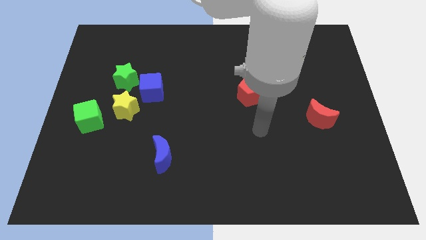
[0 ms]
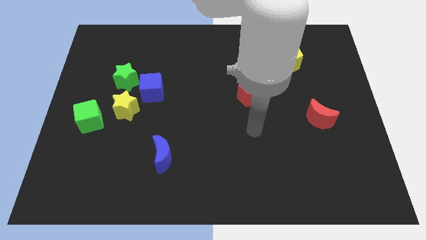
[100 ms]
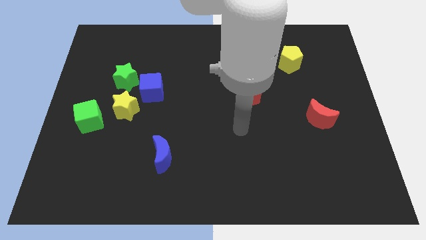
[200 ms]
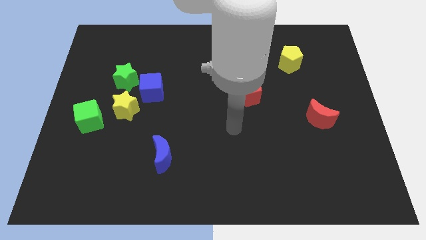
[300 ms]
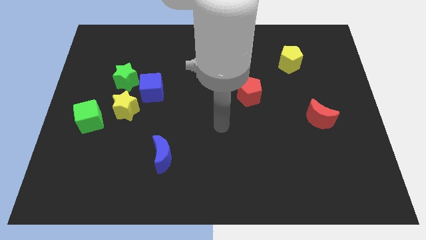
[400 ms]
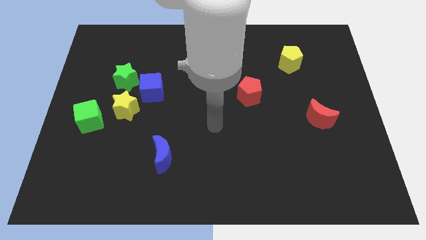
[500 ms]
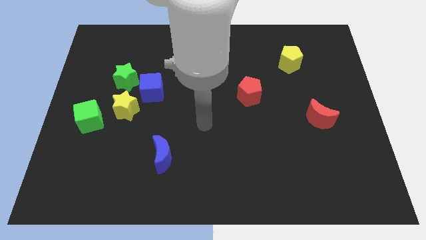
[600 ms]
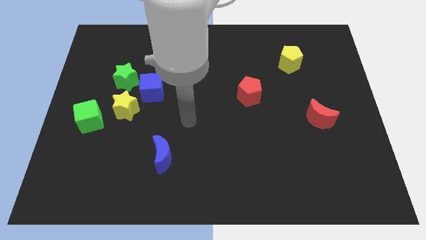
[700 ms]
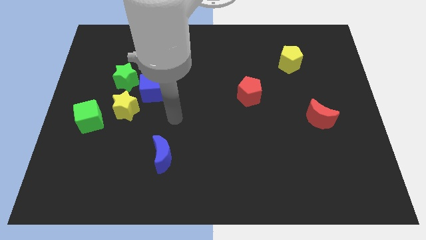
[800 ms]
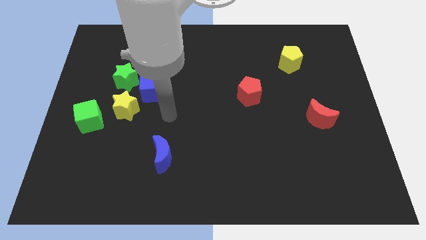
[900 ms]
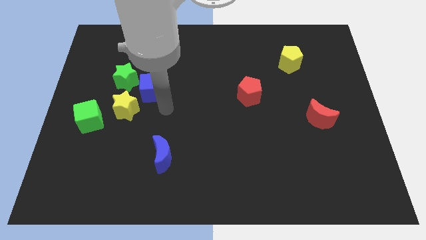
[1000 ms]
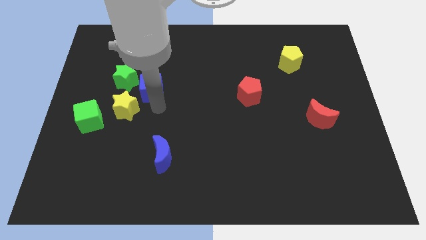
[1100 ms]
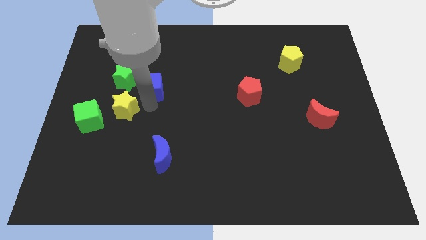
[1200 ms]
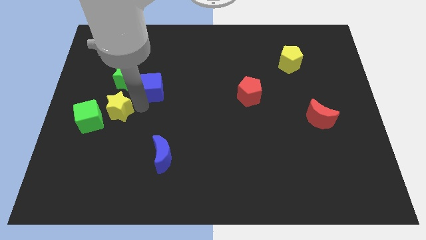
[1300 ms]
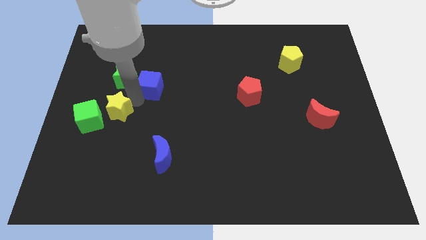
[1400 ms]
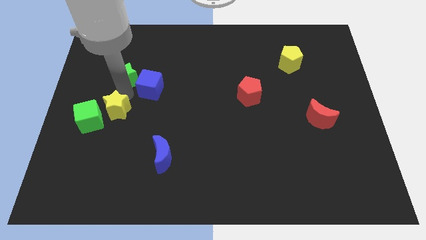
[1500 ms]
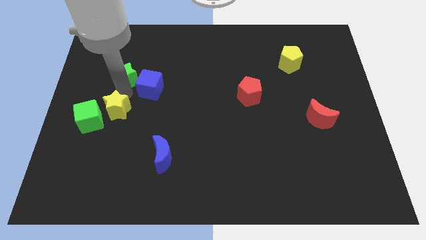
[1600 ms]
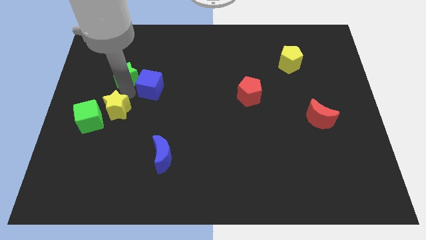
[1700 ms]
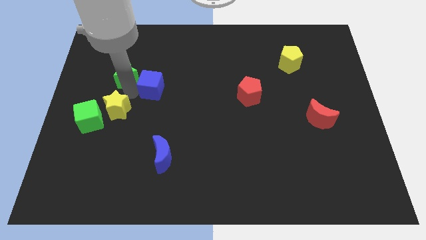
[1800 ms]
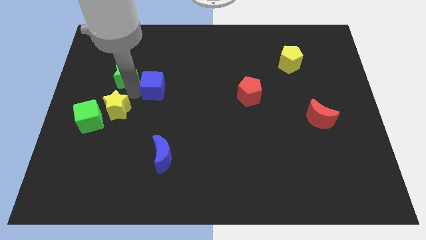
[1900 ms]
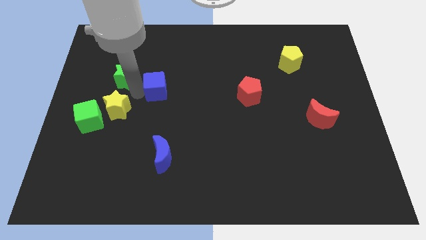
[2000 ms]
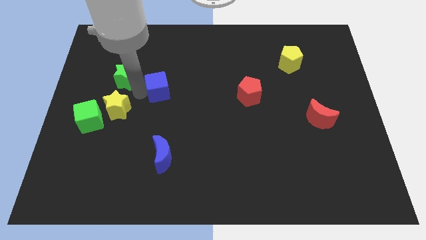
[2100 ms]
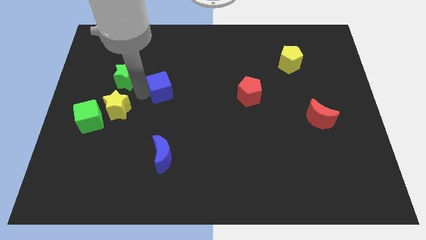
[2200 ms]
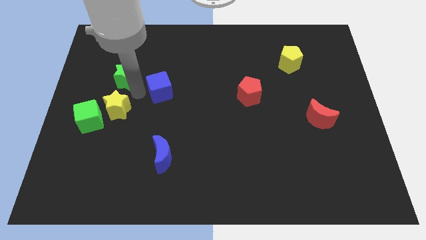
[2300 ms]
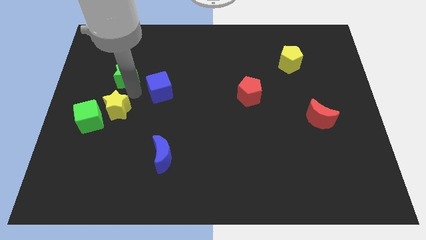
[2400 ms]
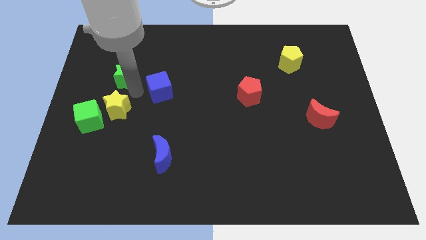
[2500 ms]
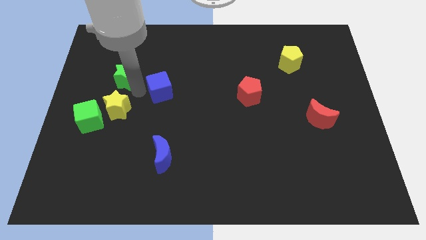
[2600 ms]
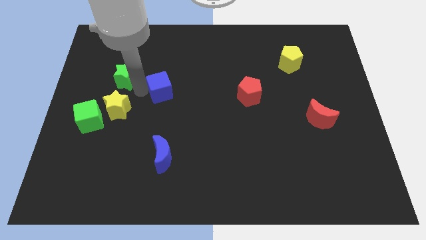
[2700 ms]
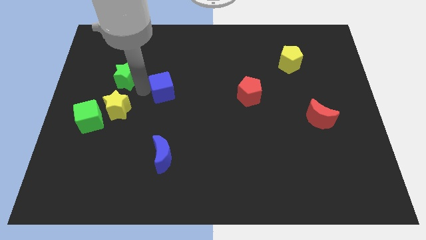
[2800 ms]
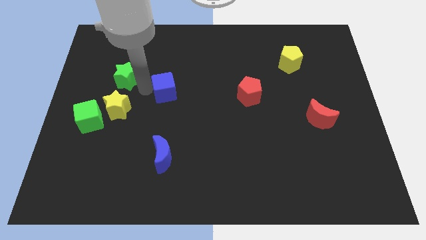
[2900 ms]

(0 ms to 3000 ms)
separate the blue cube from the green star and yellow star

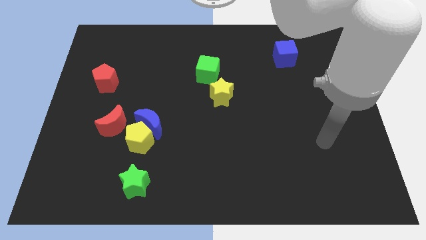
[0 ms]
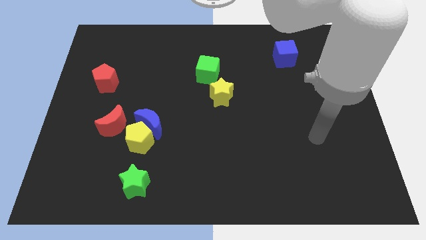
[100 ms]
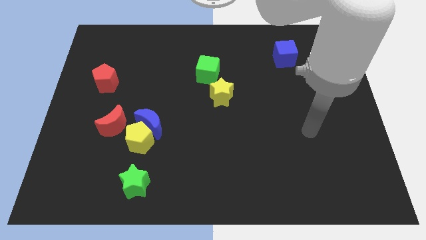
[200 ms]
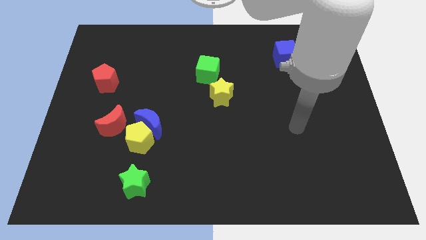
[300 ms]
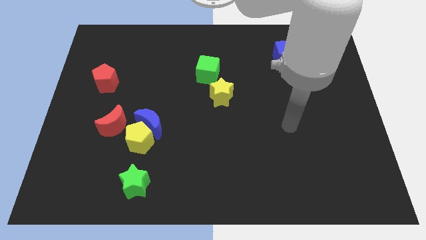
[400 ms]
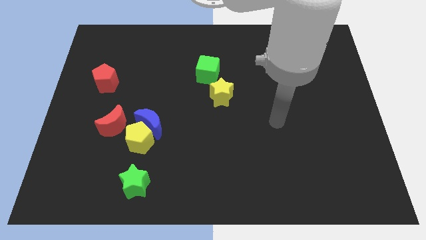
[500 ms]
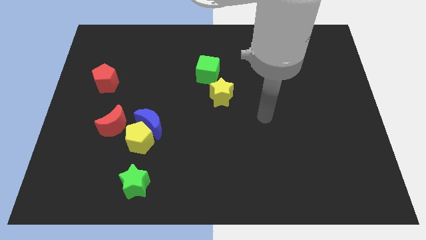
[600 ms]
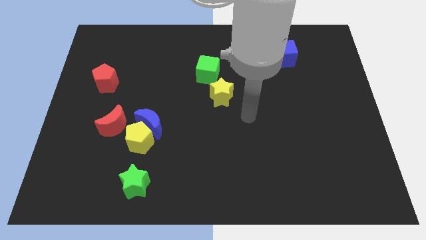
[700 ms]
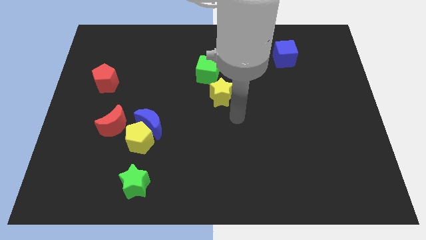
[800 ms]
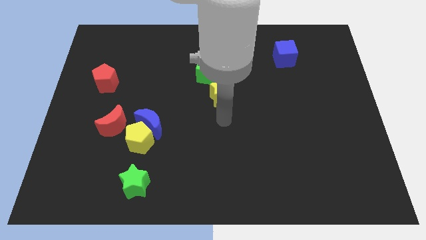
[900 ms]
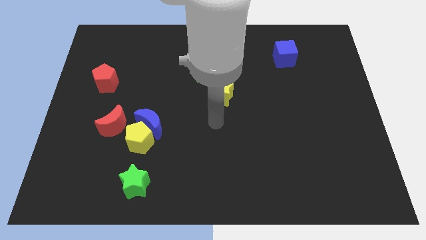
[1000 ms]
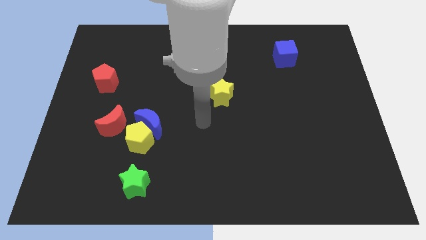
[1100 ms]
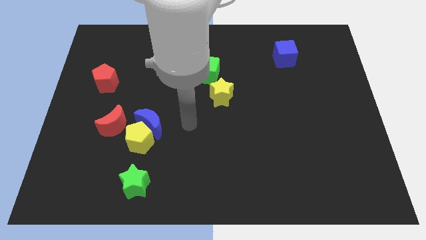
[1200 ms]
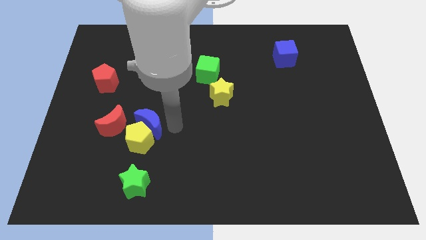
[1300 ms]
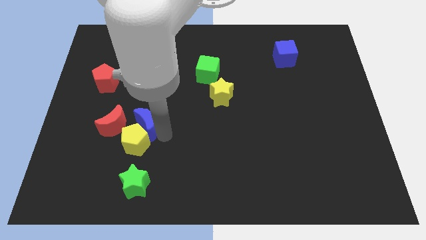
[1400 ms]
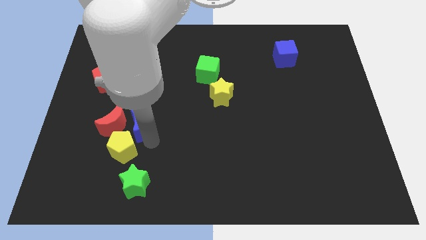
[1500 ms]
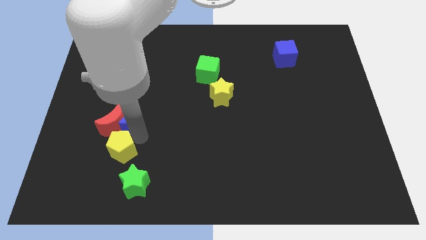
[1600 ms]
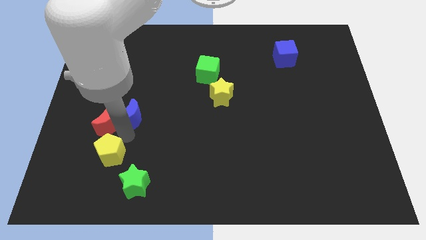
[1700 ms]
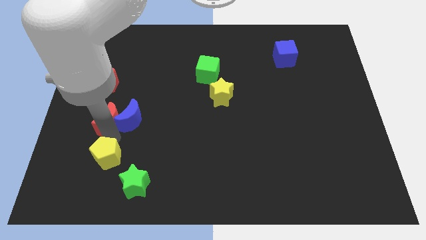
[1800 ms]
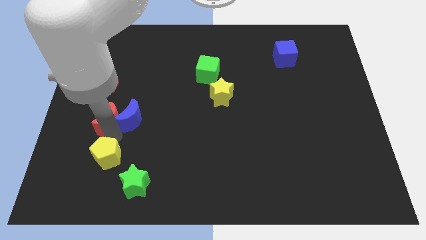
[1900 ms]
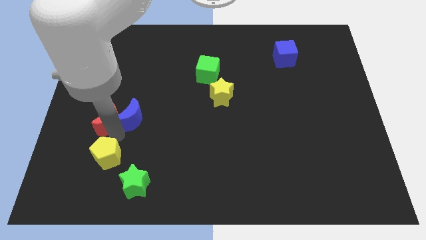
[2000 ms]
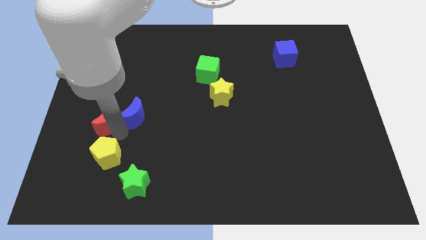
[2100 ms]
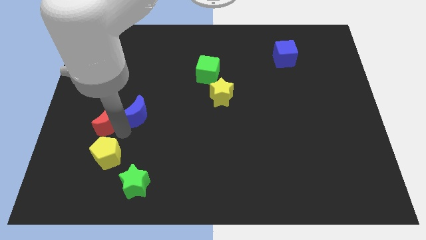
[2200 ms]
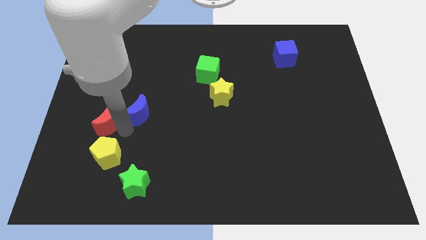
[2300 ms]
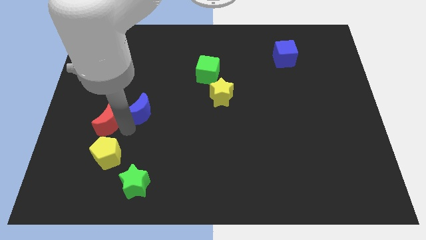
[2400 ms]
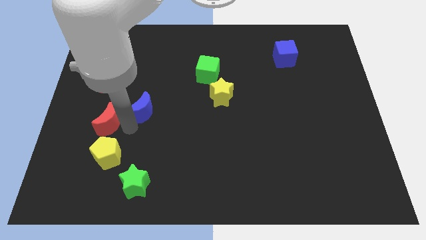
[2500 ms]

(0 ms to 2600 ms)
separate the blue moon from the yellow pentagon and red moon

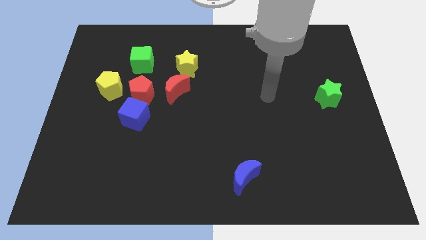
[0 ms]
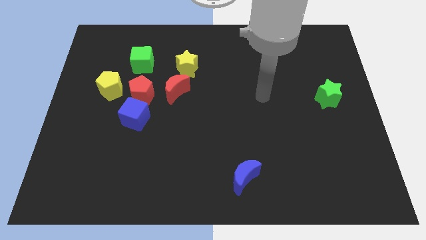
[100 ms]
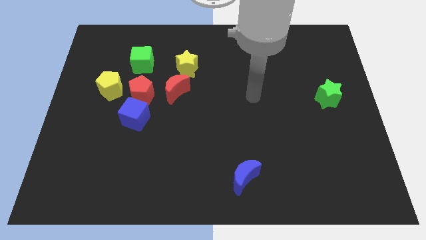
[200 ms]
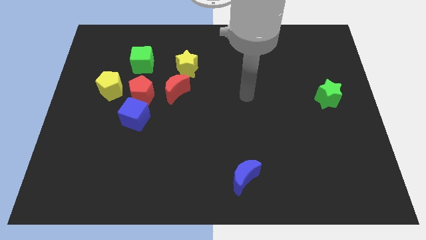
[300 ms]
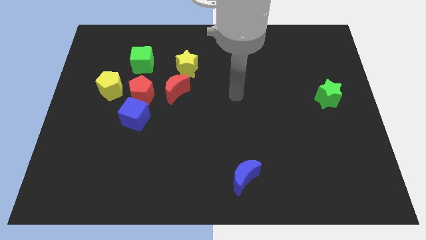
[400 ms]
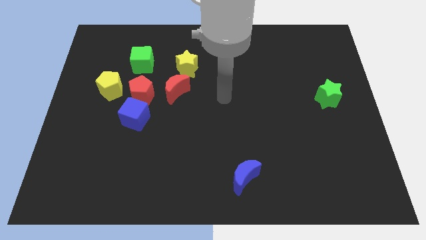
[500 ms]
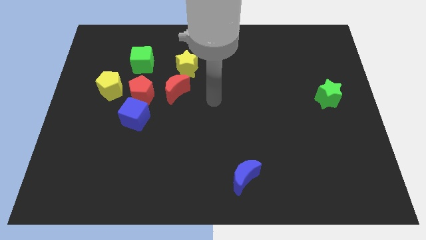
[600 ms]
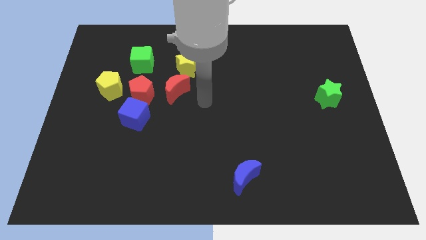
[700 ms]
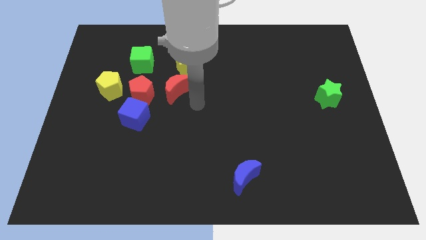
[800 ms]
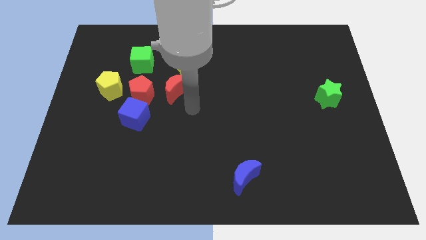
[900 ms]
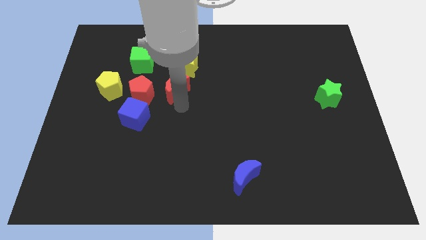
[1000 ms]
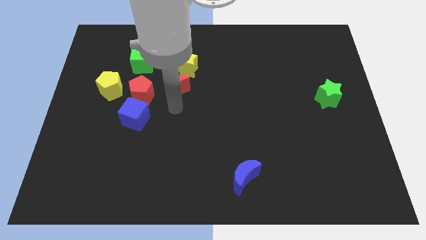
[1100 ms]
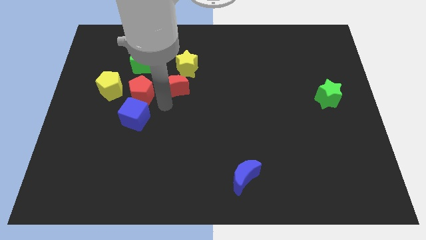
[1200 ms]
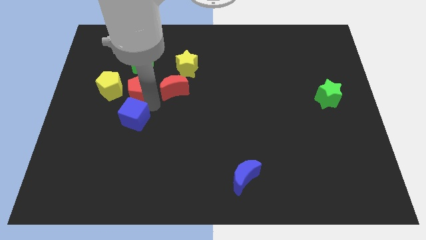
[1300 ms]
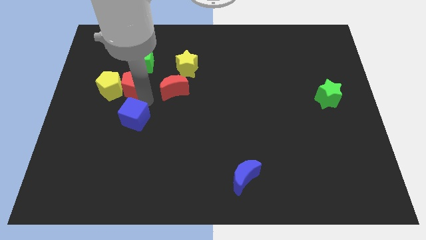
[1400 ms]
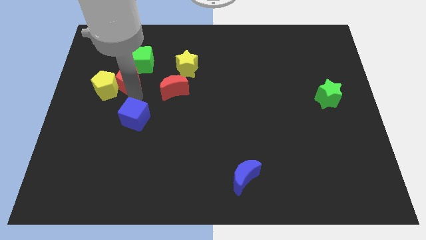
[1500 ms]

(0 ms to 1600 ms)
move the blue cube away from the red pentagon

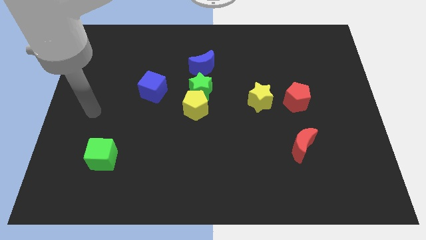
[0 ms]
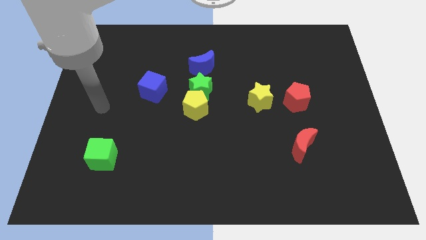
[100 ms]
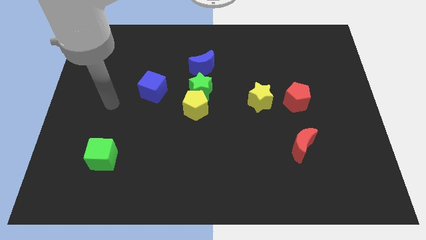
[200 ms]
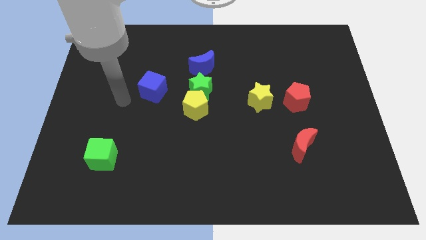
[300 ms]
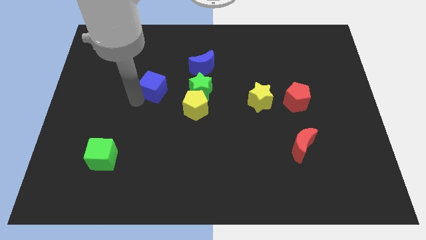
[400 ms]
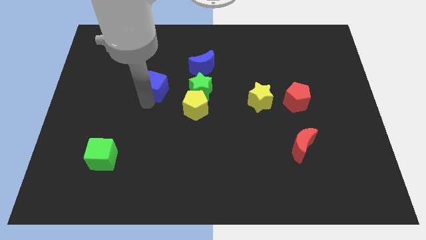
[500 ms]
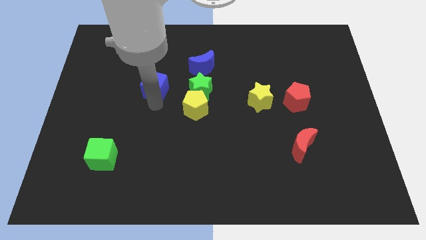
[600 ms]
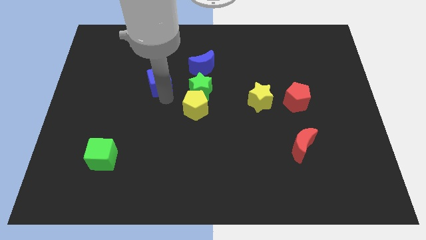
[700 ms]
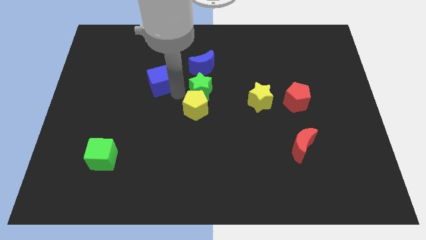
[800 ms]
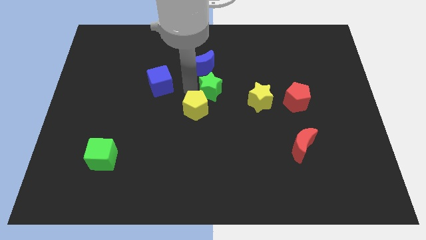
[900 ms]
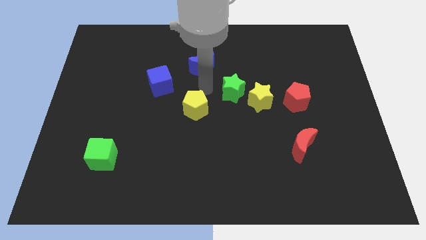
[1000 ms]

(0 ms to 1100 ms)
move the yellow pentagon away from the green star

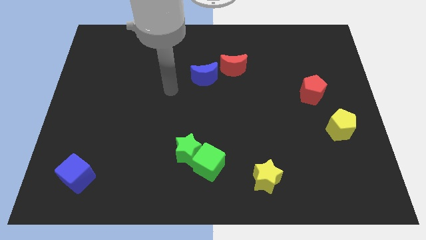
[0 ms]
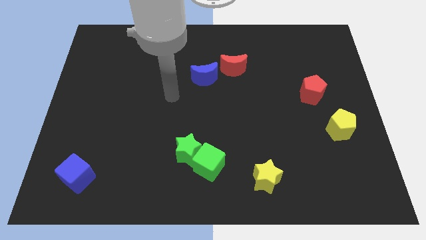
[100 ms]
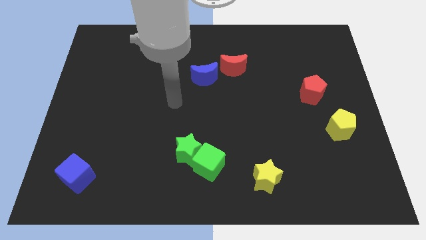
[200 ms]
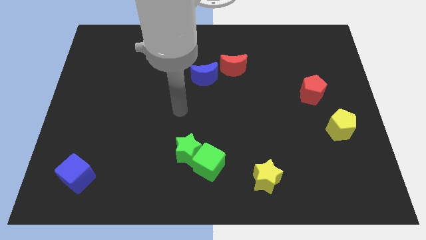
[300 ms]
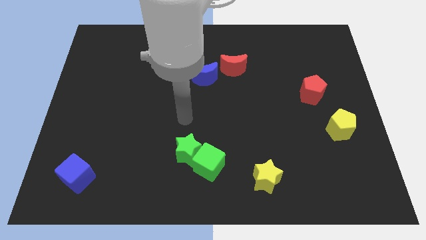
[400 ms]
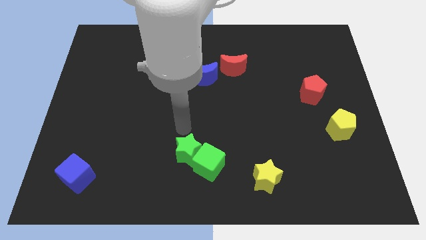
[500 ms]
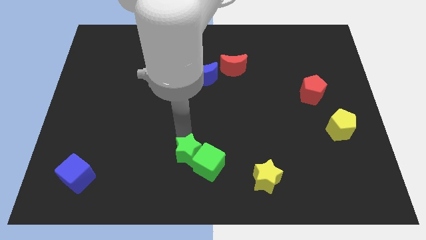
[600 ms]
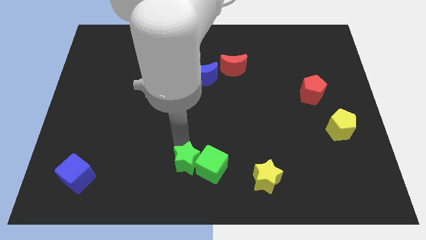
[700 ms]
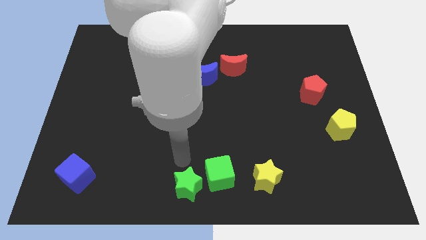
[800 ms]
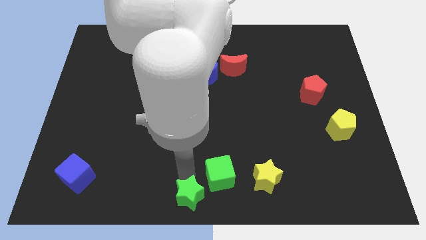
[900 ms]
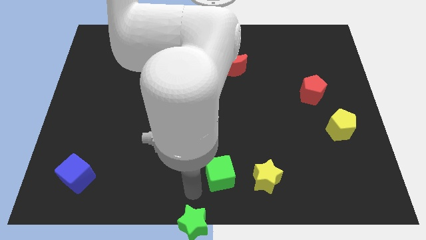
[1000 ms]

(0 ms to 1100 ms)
separate the green cube from the green star
